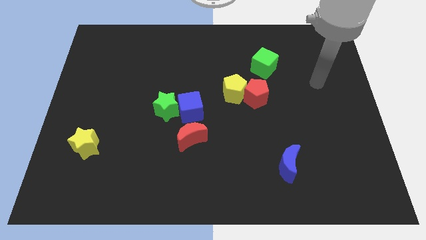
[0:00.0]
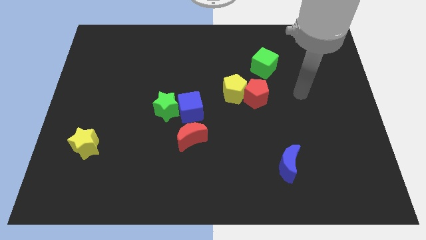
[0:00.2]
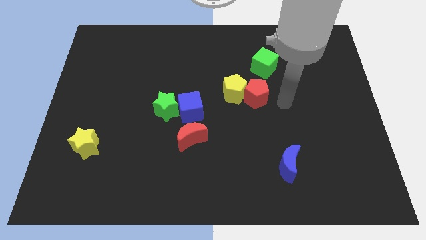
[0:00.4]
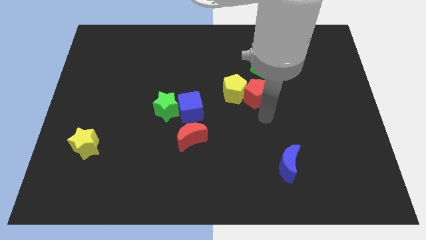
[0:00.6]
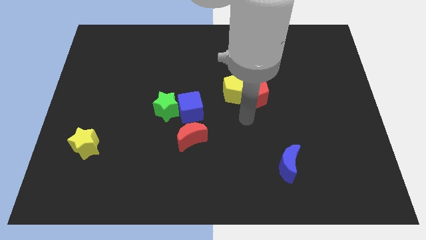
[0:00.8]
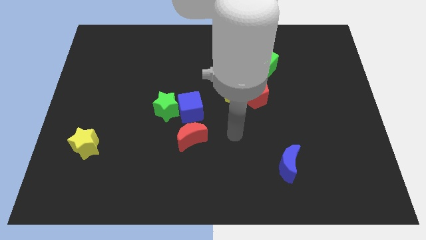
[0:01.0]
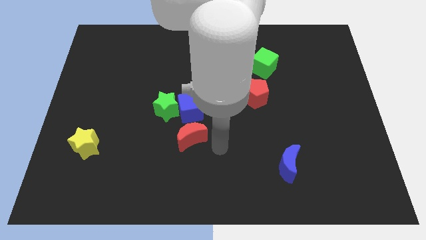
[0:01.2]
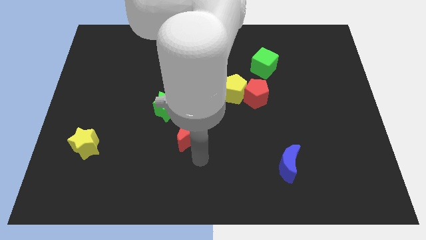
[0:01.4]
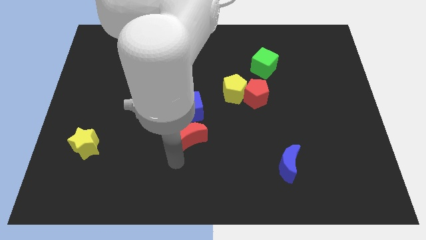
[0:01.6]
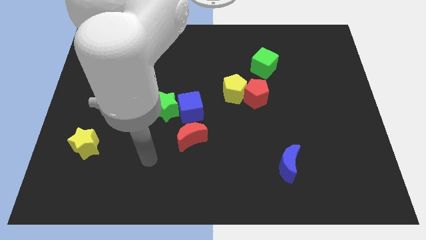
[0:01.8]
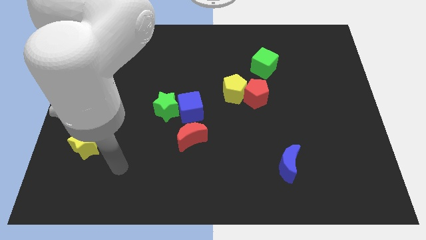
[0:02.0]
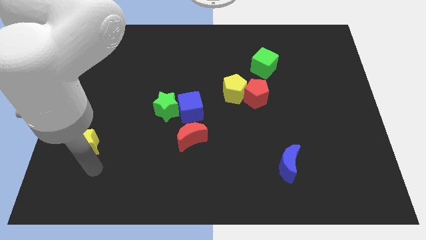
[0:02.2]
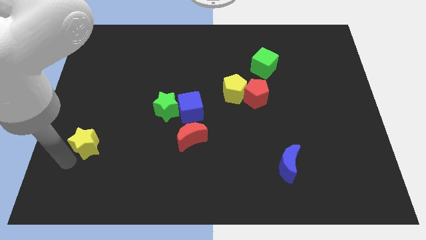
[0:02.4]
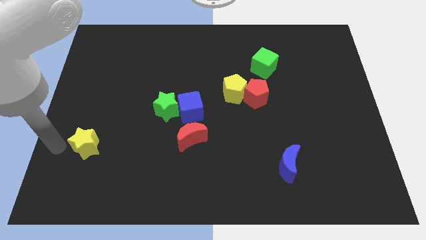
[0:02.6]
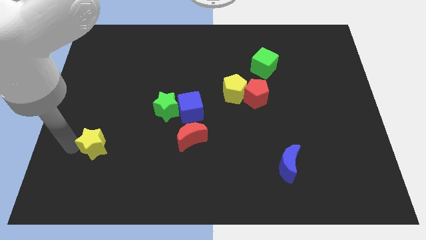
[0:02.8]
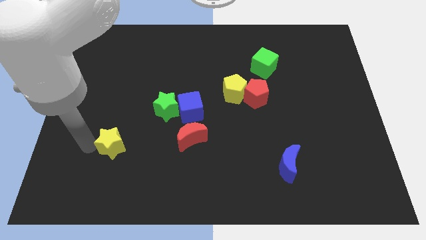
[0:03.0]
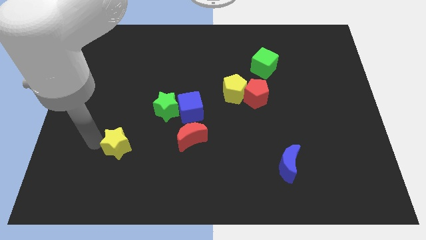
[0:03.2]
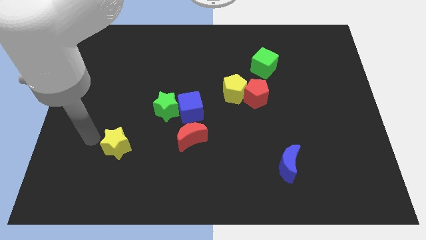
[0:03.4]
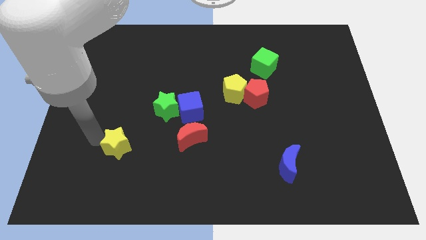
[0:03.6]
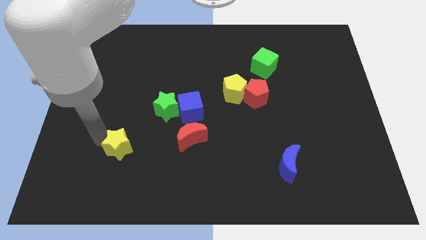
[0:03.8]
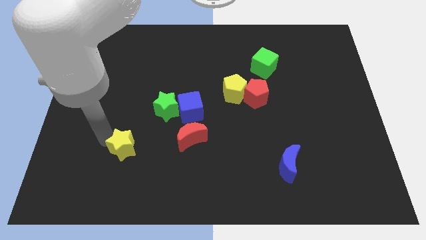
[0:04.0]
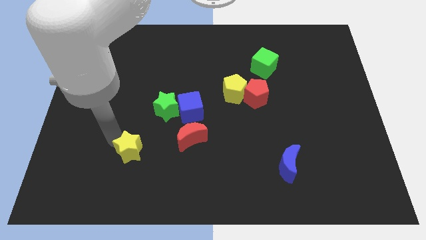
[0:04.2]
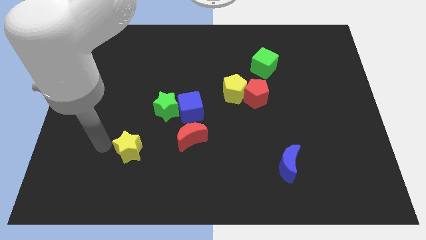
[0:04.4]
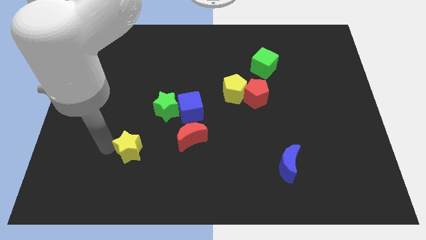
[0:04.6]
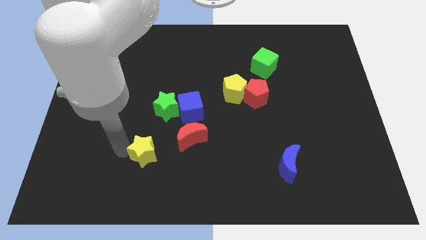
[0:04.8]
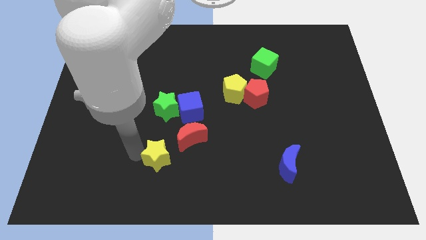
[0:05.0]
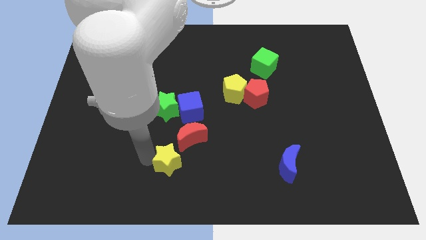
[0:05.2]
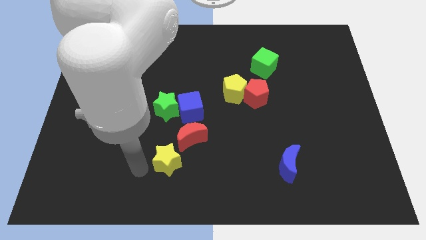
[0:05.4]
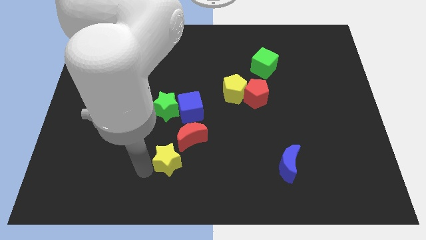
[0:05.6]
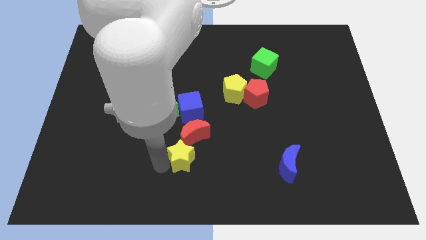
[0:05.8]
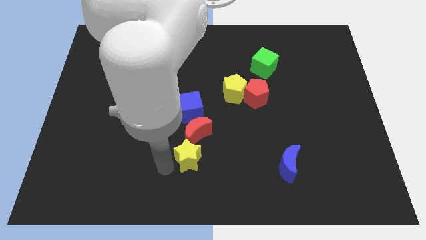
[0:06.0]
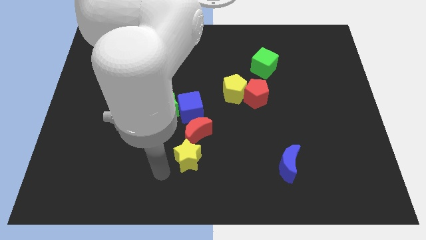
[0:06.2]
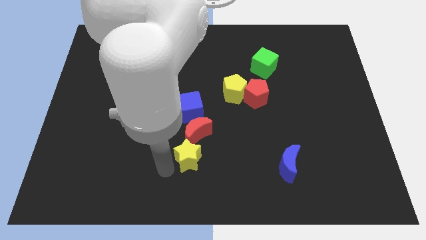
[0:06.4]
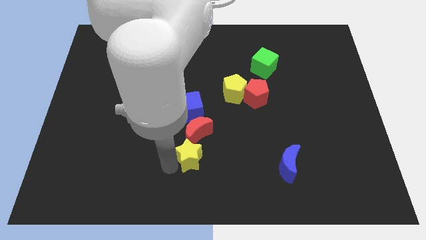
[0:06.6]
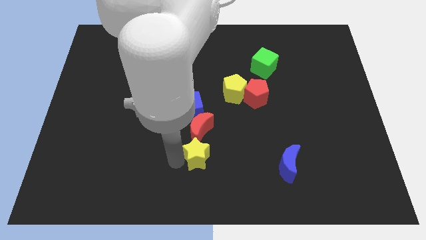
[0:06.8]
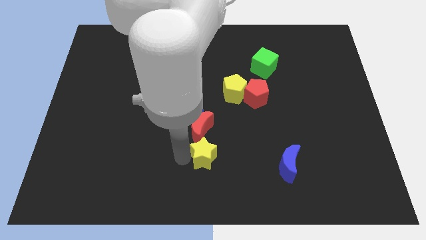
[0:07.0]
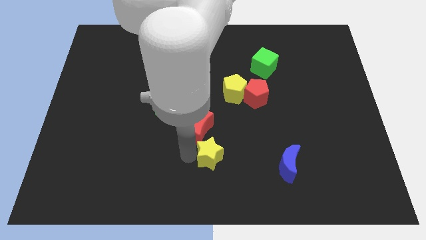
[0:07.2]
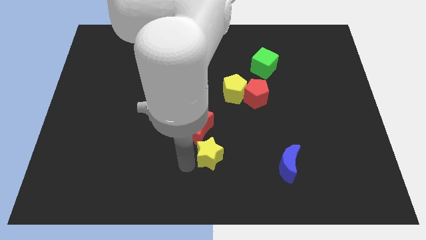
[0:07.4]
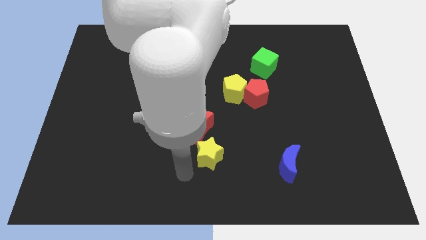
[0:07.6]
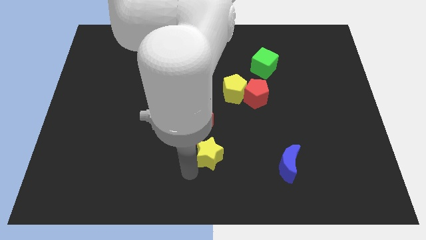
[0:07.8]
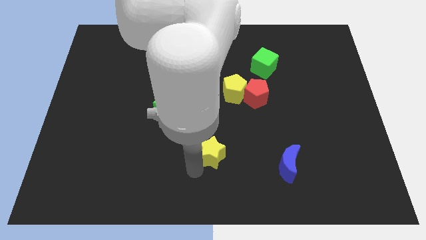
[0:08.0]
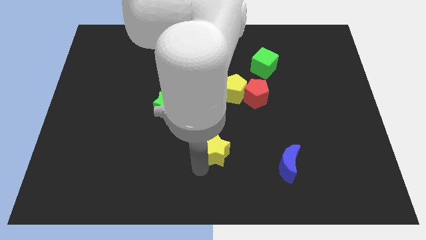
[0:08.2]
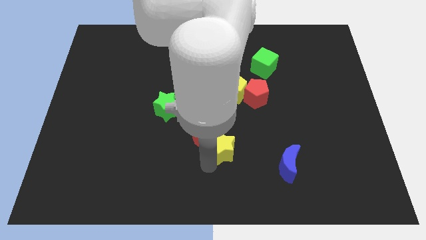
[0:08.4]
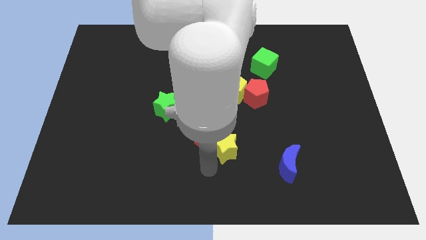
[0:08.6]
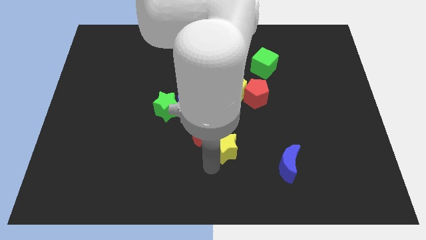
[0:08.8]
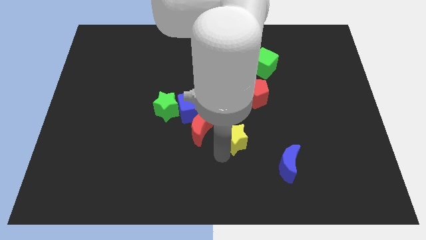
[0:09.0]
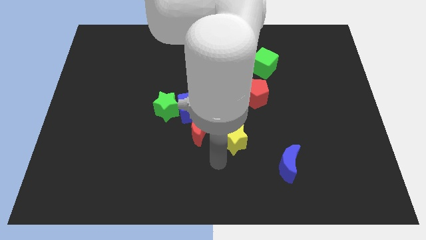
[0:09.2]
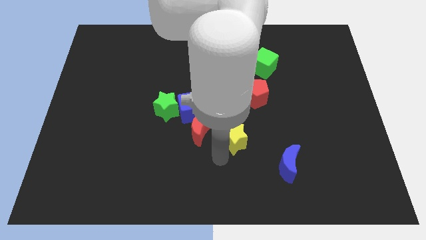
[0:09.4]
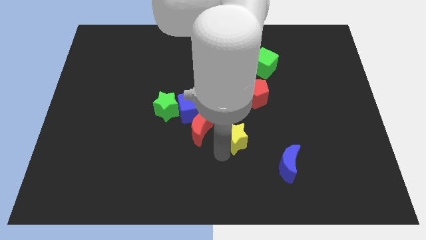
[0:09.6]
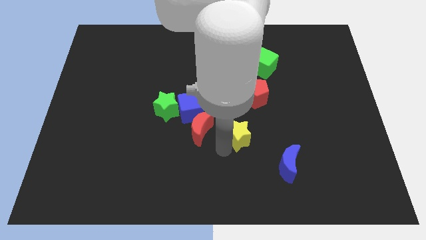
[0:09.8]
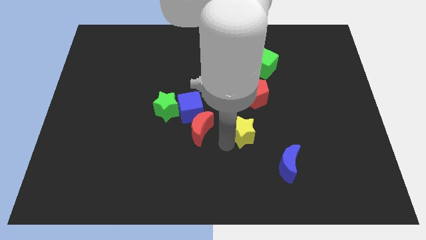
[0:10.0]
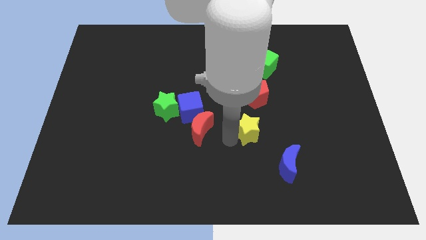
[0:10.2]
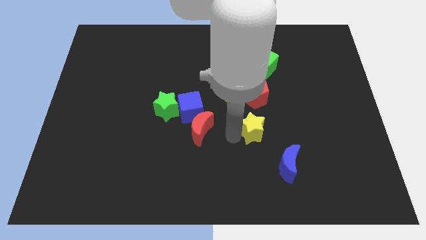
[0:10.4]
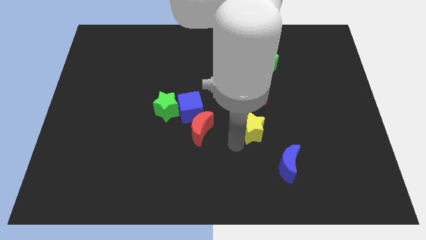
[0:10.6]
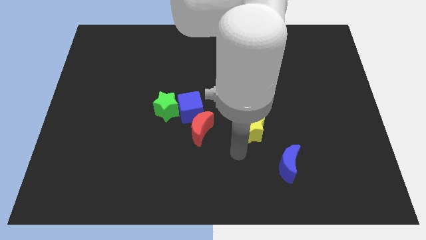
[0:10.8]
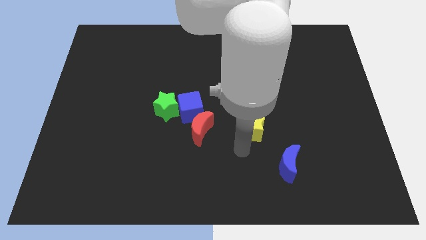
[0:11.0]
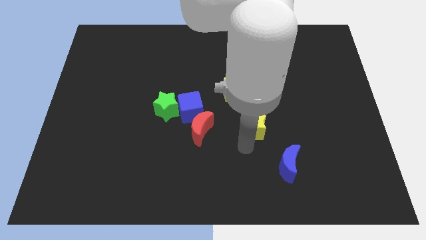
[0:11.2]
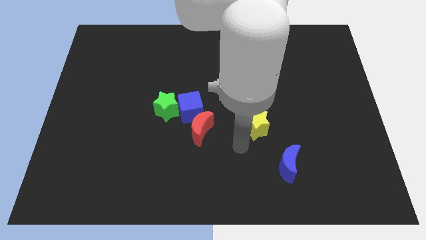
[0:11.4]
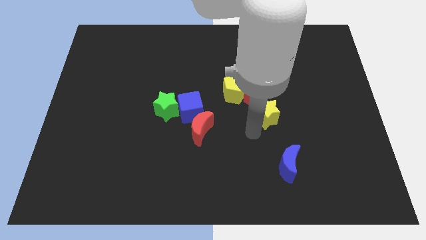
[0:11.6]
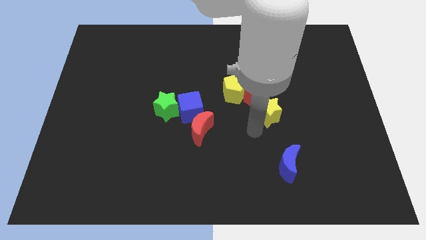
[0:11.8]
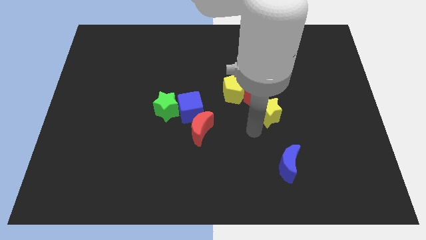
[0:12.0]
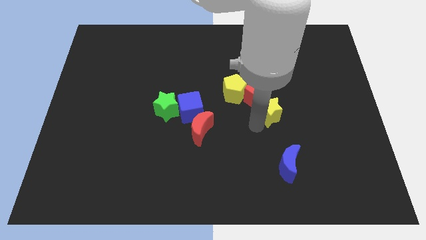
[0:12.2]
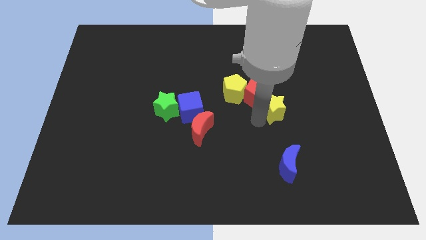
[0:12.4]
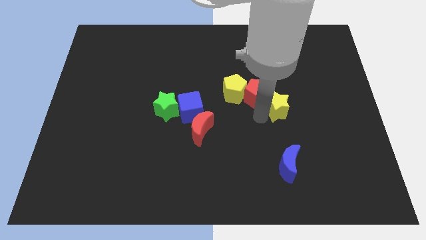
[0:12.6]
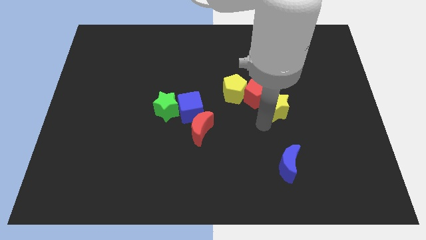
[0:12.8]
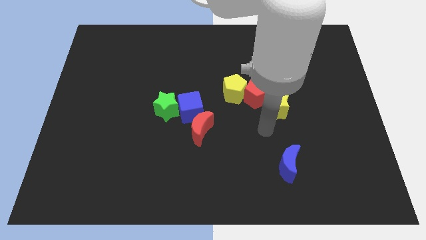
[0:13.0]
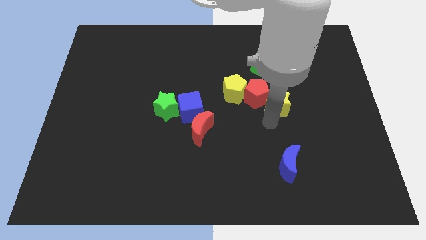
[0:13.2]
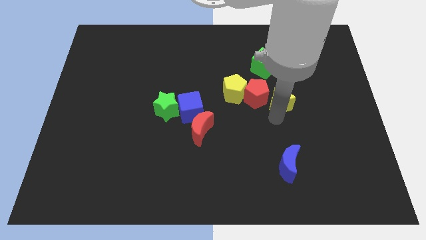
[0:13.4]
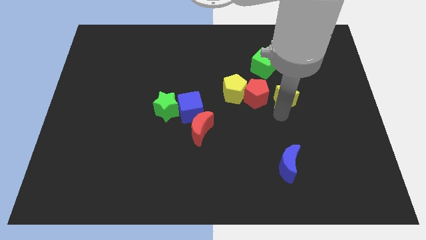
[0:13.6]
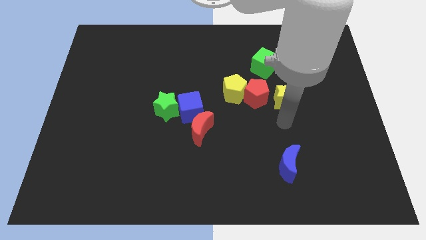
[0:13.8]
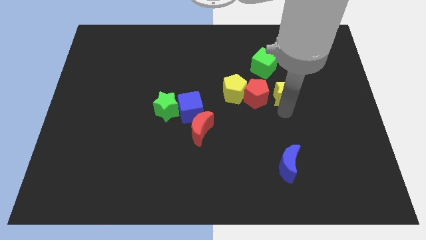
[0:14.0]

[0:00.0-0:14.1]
slide the yellow star to the bottom right side of the green cube
